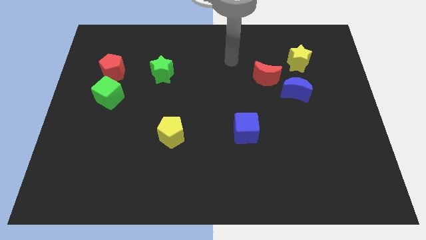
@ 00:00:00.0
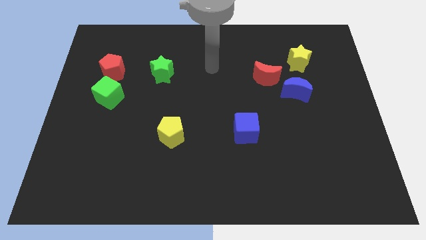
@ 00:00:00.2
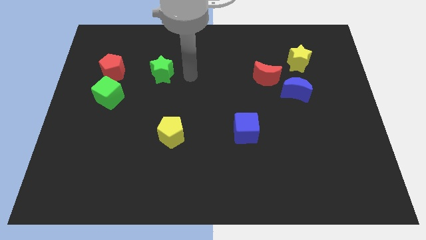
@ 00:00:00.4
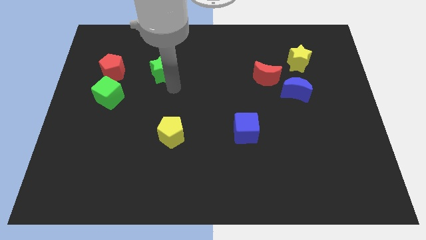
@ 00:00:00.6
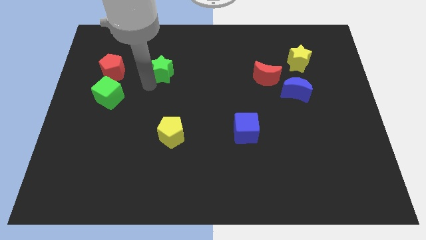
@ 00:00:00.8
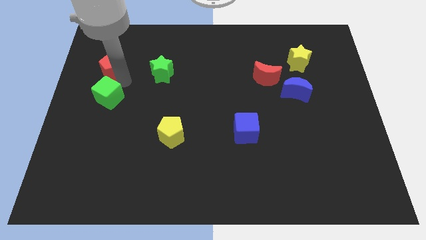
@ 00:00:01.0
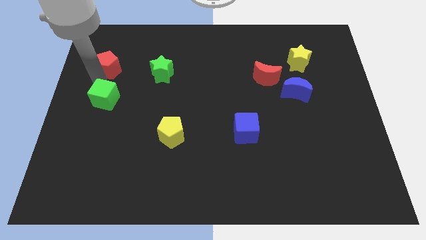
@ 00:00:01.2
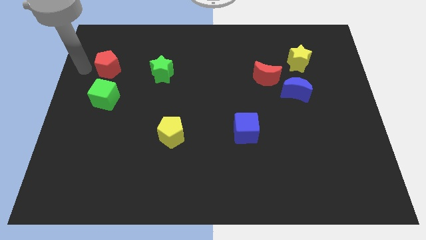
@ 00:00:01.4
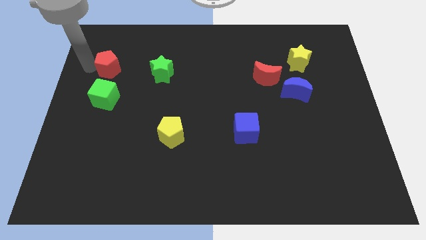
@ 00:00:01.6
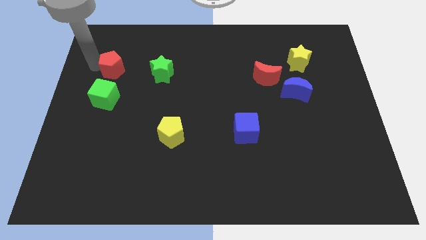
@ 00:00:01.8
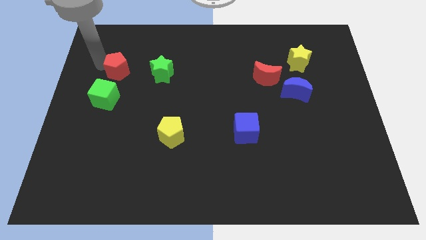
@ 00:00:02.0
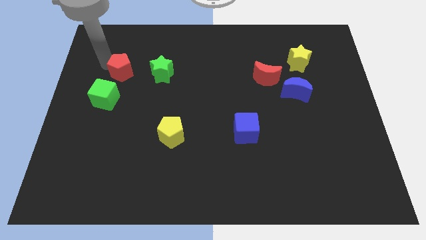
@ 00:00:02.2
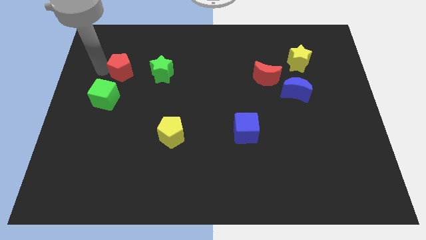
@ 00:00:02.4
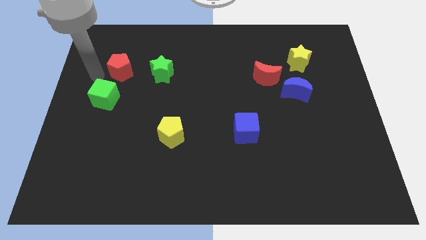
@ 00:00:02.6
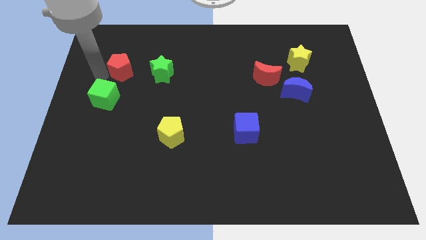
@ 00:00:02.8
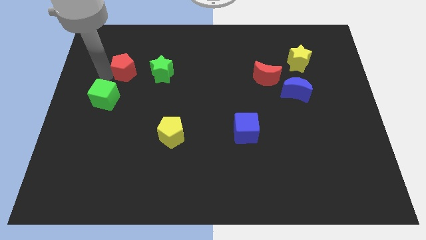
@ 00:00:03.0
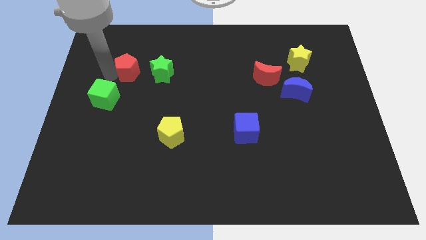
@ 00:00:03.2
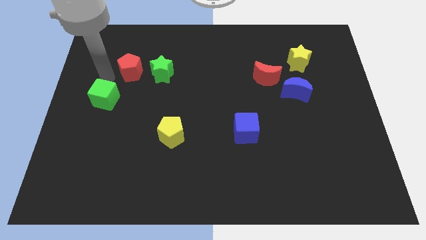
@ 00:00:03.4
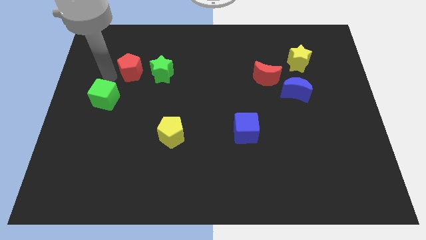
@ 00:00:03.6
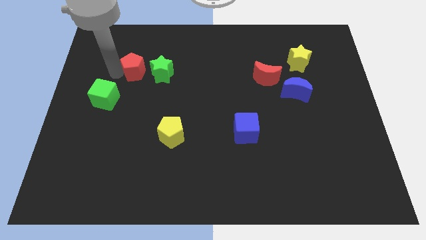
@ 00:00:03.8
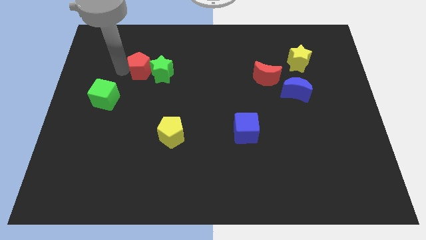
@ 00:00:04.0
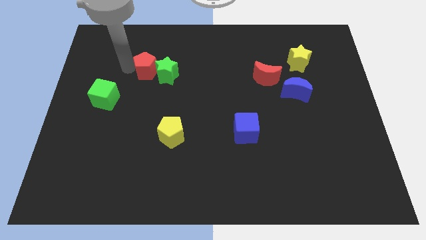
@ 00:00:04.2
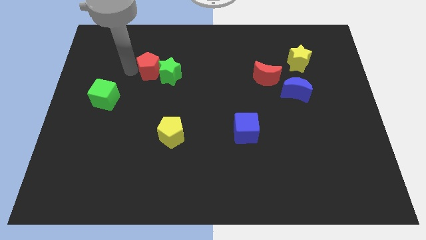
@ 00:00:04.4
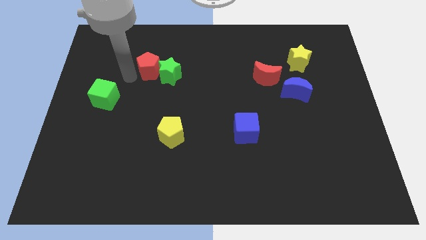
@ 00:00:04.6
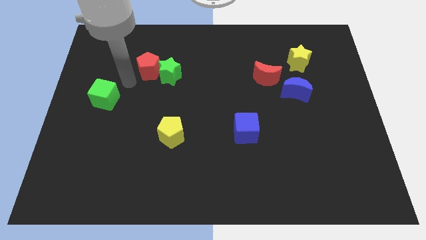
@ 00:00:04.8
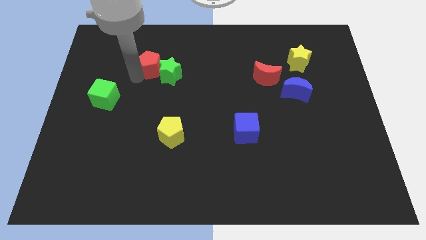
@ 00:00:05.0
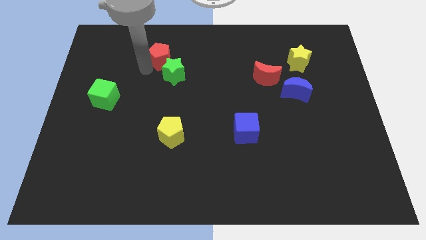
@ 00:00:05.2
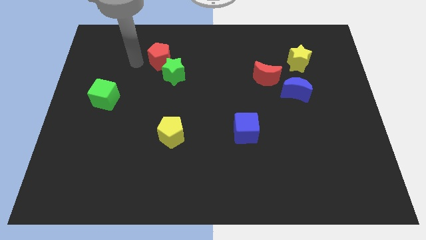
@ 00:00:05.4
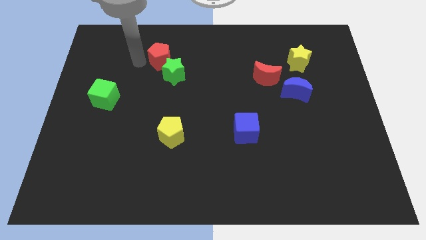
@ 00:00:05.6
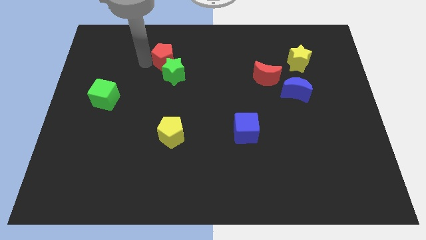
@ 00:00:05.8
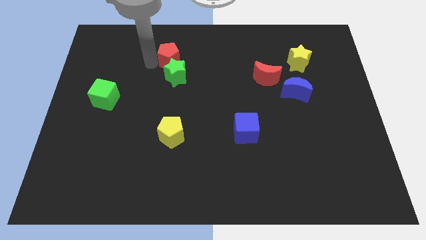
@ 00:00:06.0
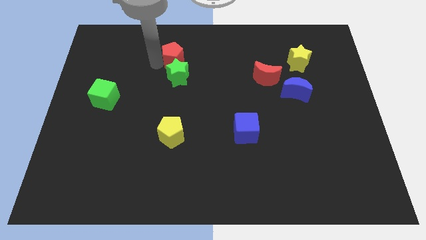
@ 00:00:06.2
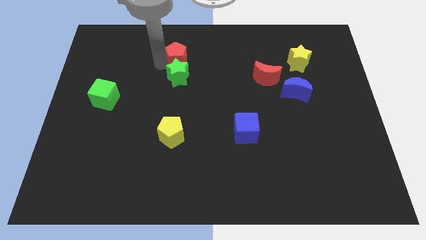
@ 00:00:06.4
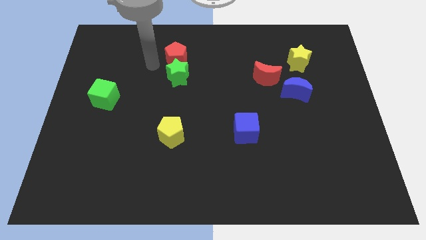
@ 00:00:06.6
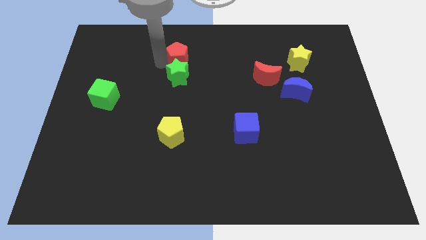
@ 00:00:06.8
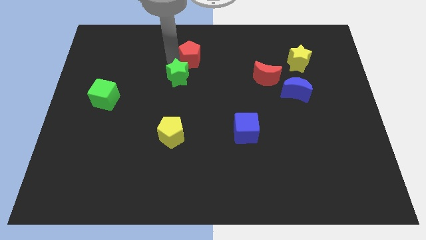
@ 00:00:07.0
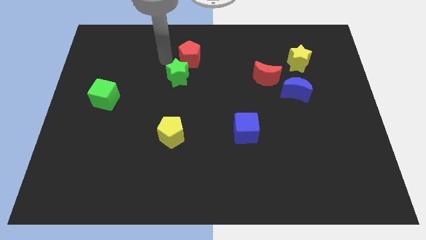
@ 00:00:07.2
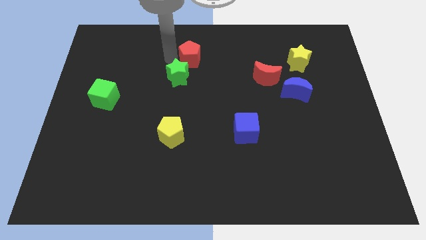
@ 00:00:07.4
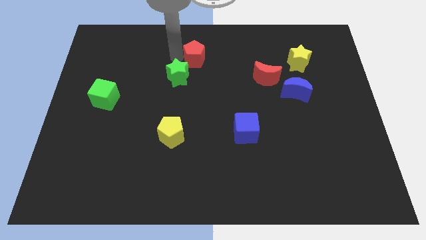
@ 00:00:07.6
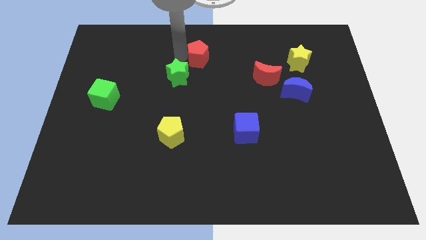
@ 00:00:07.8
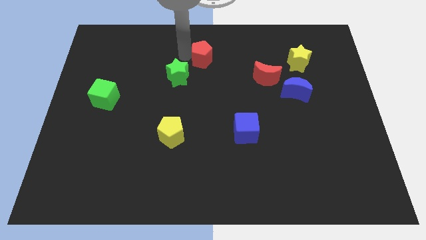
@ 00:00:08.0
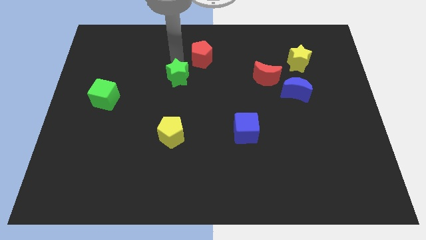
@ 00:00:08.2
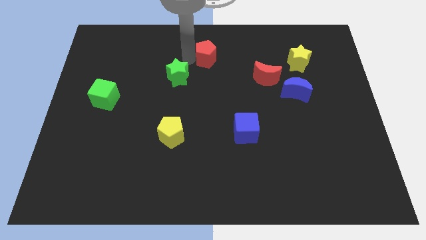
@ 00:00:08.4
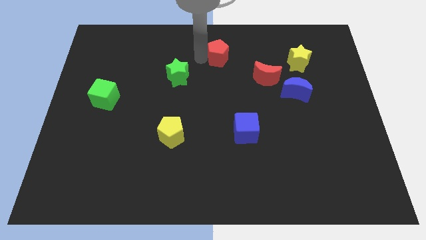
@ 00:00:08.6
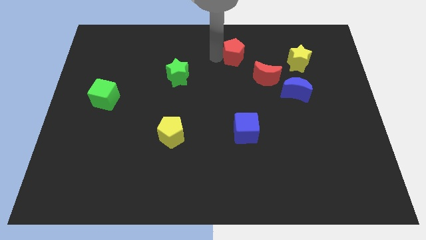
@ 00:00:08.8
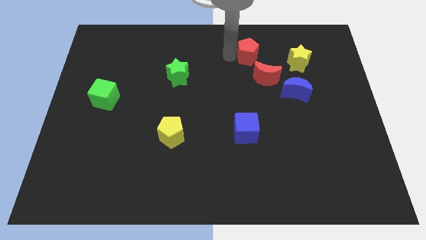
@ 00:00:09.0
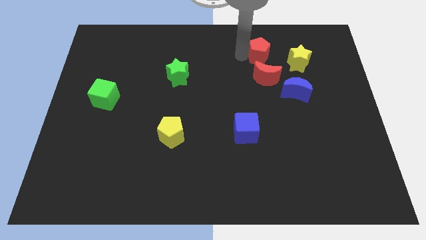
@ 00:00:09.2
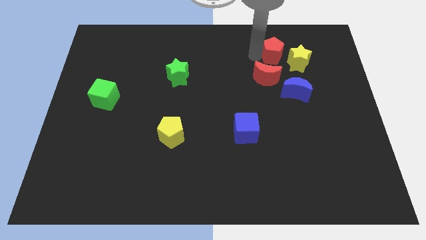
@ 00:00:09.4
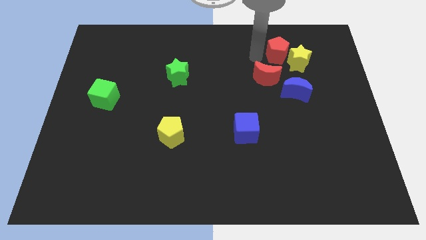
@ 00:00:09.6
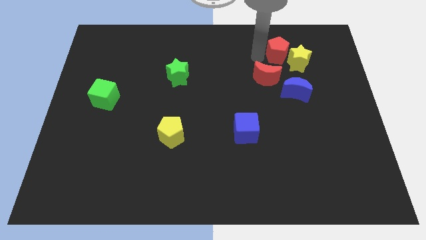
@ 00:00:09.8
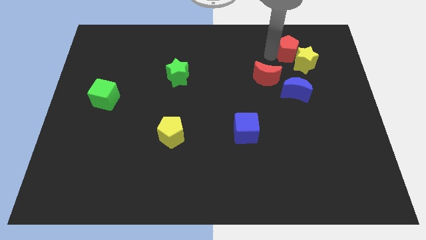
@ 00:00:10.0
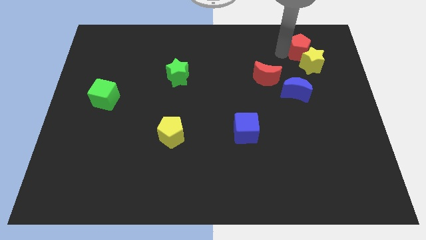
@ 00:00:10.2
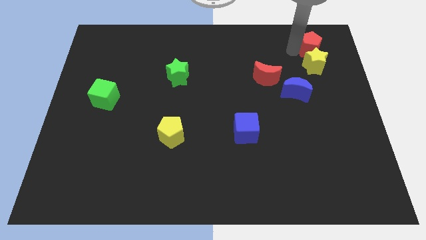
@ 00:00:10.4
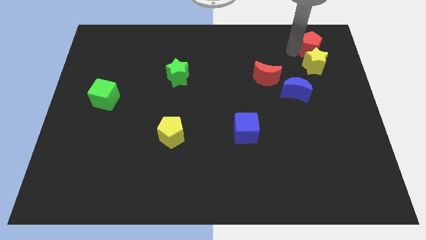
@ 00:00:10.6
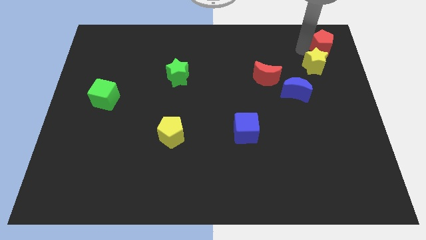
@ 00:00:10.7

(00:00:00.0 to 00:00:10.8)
move the red pentagon to the top right of the board

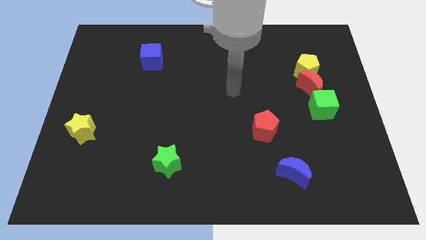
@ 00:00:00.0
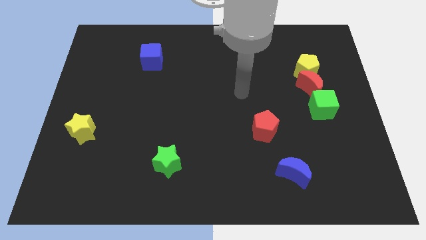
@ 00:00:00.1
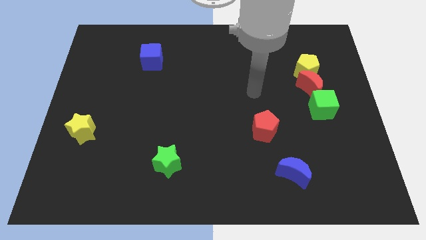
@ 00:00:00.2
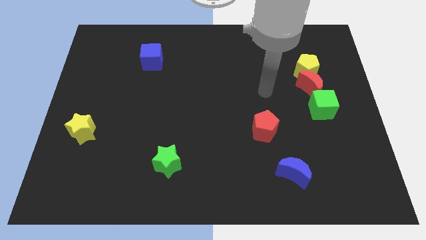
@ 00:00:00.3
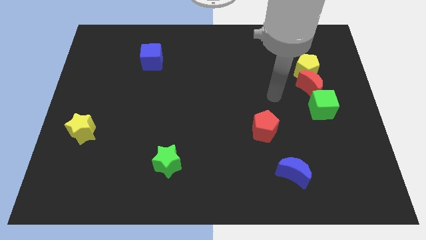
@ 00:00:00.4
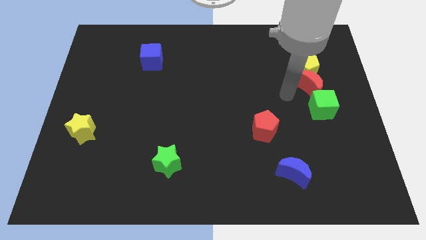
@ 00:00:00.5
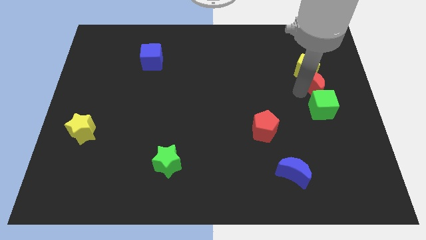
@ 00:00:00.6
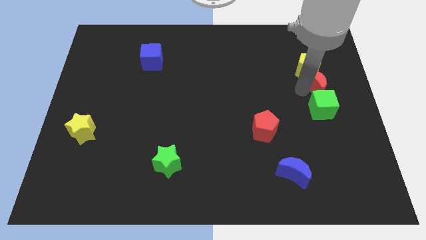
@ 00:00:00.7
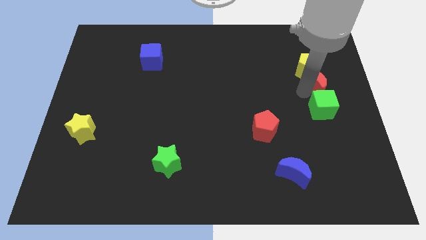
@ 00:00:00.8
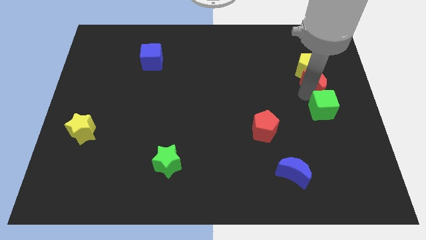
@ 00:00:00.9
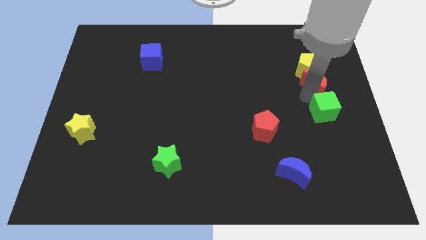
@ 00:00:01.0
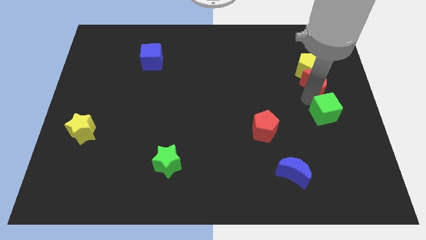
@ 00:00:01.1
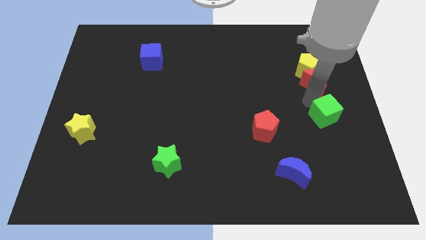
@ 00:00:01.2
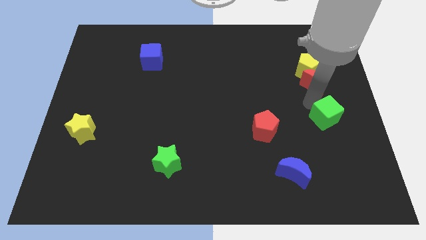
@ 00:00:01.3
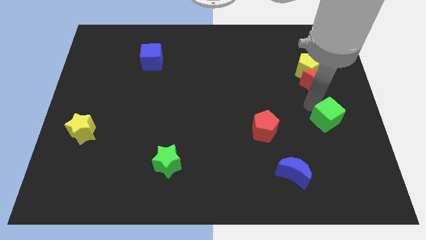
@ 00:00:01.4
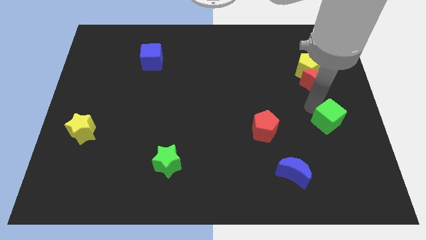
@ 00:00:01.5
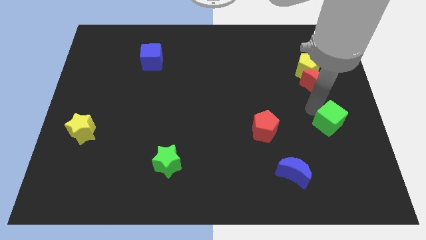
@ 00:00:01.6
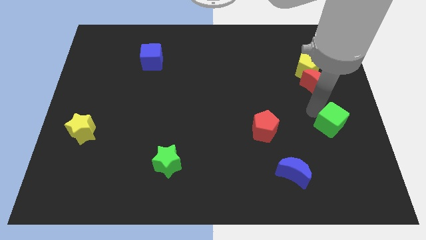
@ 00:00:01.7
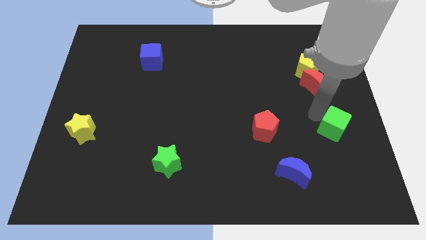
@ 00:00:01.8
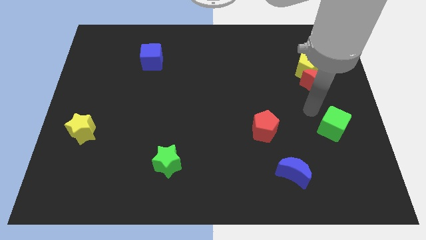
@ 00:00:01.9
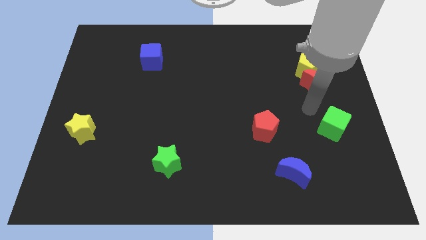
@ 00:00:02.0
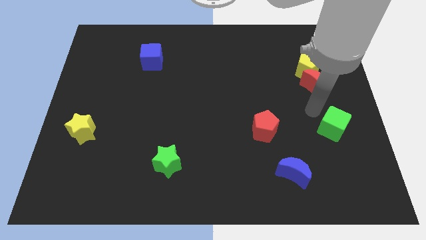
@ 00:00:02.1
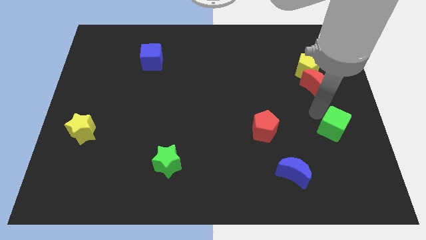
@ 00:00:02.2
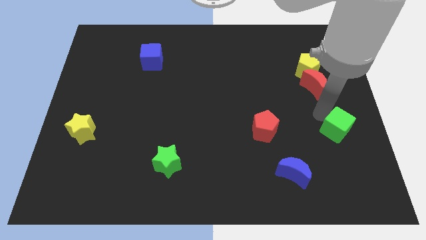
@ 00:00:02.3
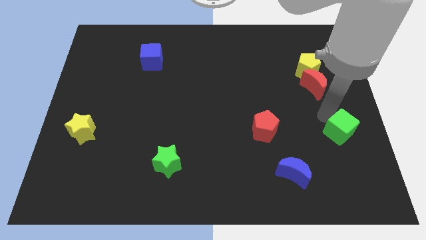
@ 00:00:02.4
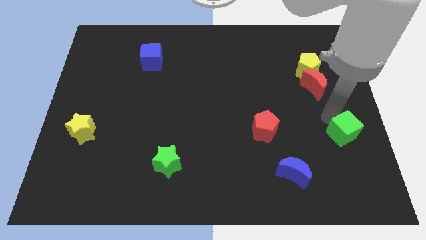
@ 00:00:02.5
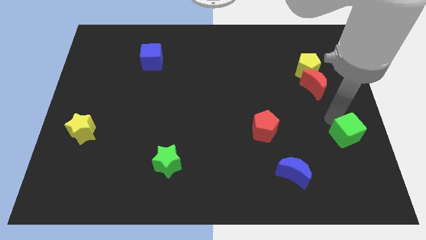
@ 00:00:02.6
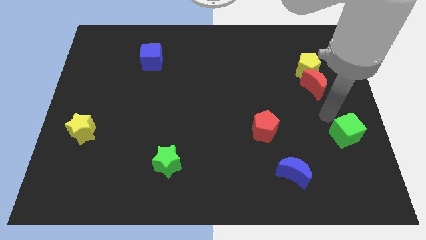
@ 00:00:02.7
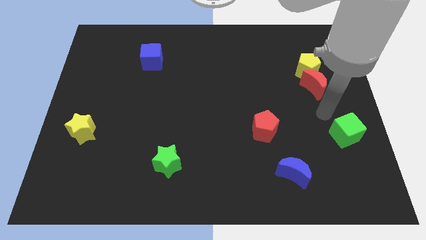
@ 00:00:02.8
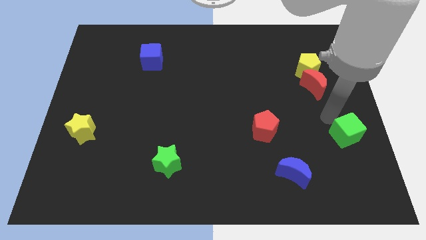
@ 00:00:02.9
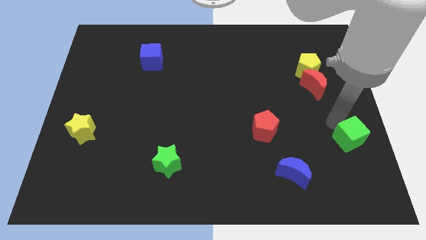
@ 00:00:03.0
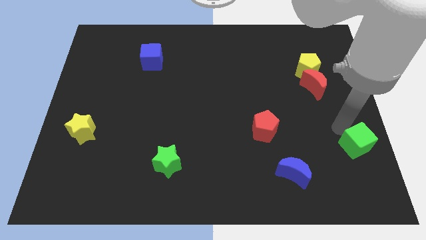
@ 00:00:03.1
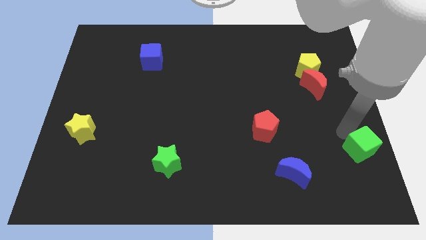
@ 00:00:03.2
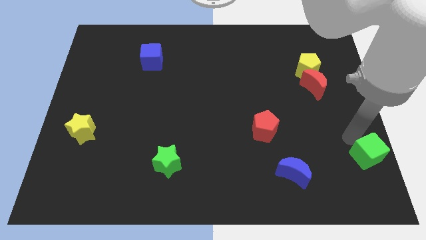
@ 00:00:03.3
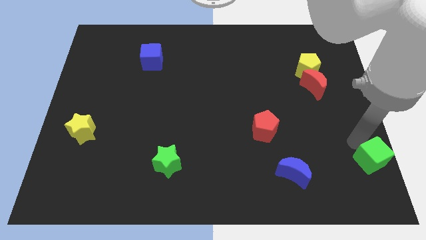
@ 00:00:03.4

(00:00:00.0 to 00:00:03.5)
put the green cube to the bottom right
